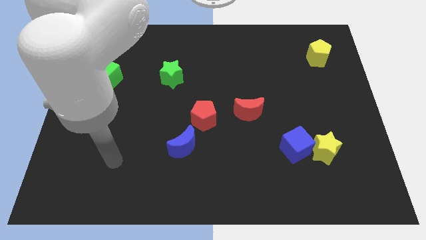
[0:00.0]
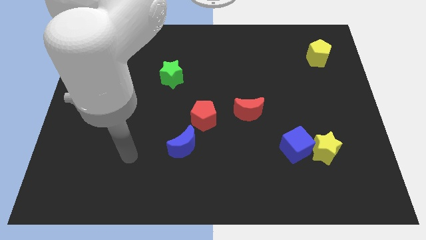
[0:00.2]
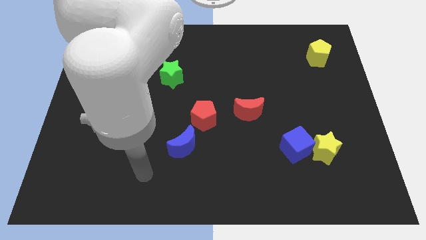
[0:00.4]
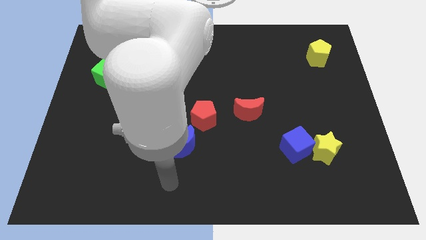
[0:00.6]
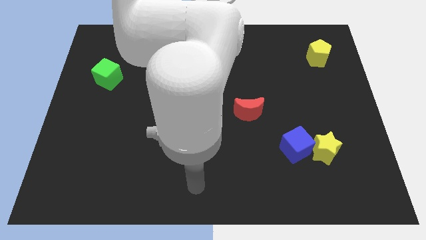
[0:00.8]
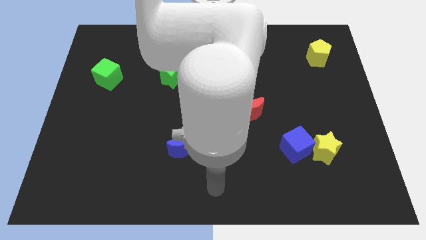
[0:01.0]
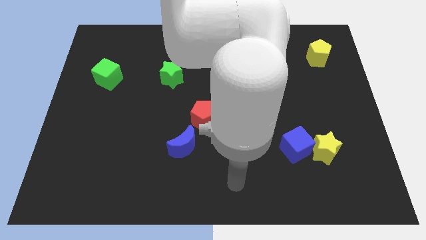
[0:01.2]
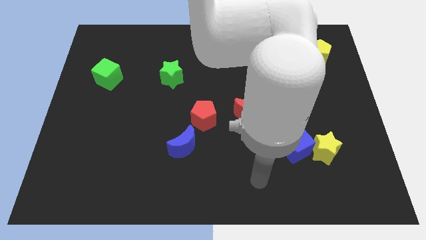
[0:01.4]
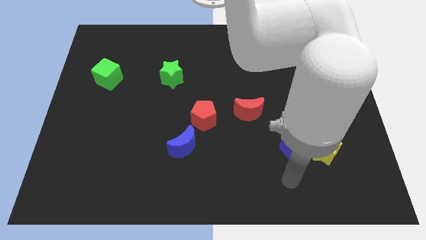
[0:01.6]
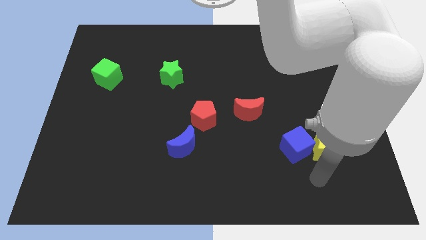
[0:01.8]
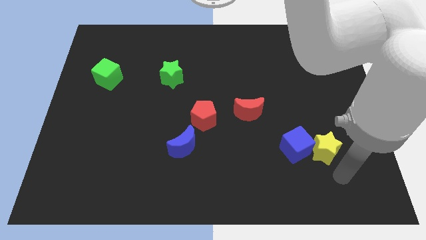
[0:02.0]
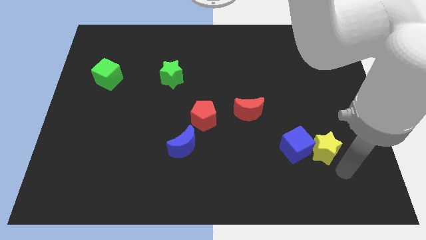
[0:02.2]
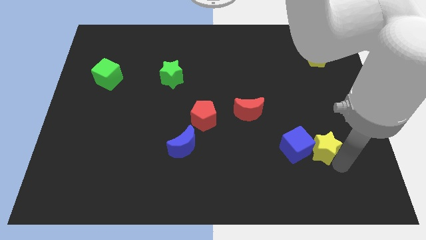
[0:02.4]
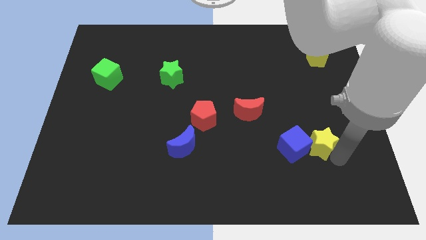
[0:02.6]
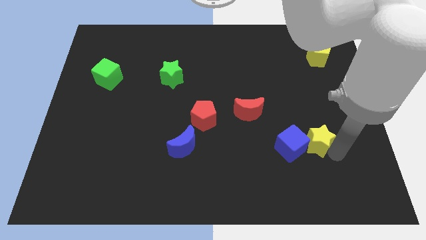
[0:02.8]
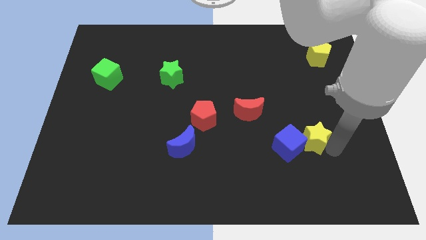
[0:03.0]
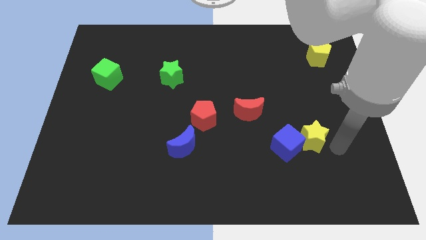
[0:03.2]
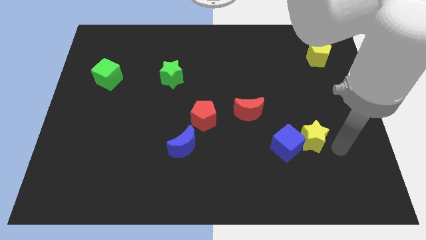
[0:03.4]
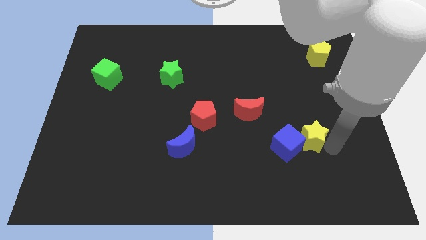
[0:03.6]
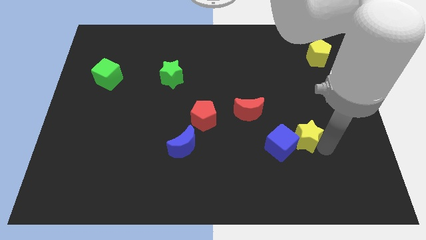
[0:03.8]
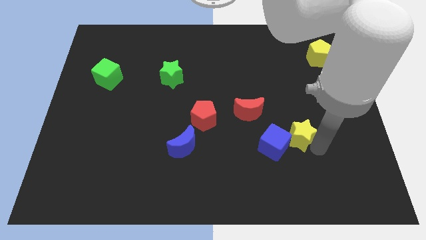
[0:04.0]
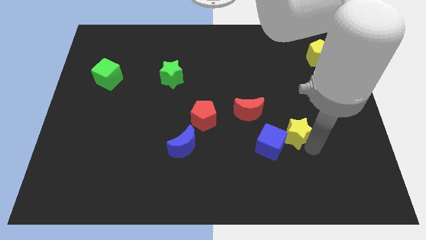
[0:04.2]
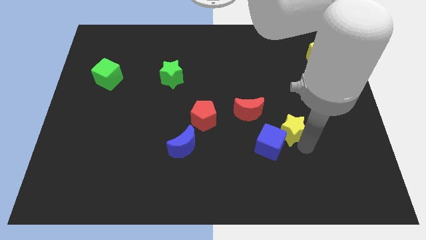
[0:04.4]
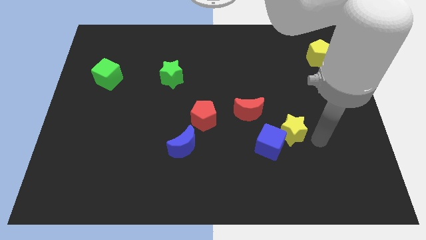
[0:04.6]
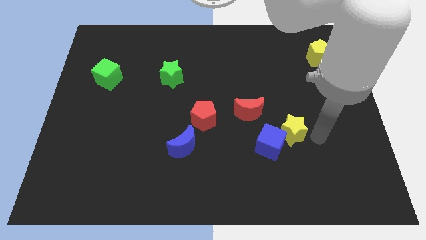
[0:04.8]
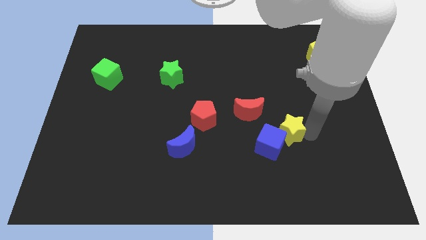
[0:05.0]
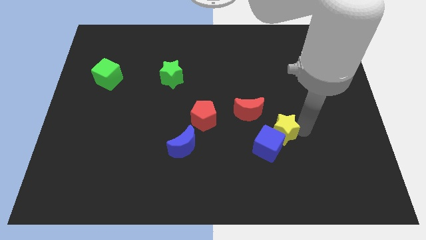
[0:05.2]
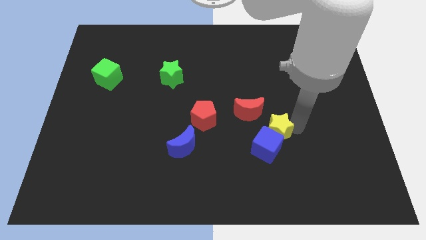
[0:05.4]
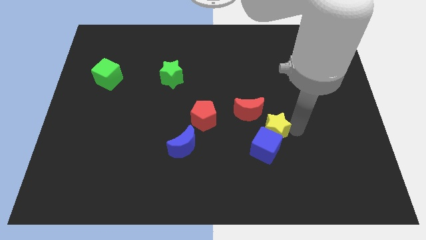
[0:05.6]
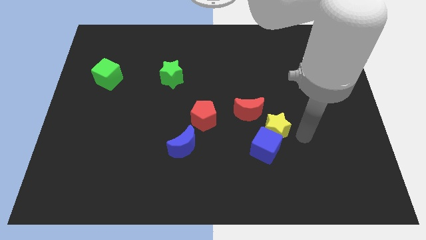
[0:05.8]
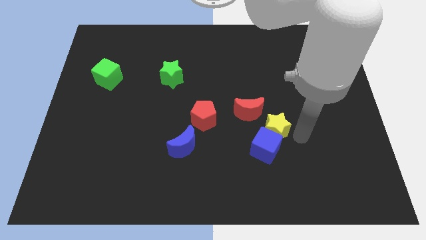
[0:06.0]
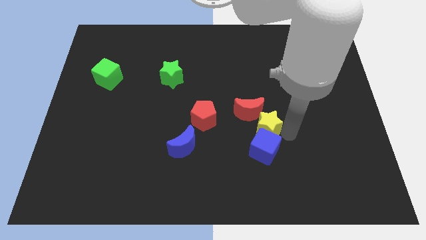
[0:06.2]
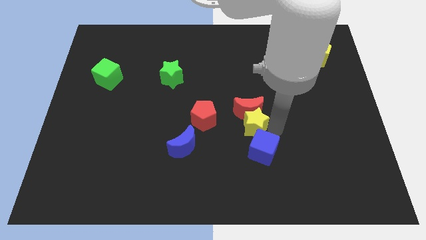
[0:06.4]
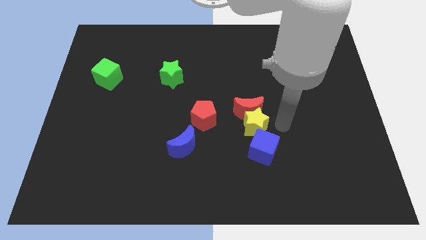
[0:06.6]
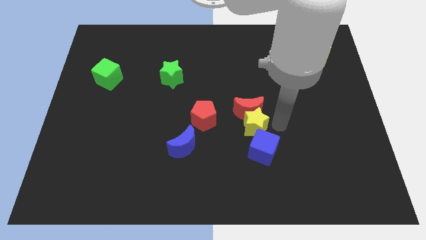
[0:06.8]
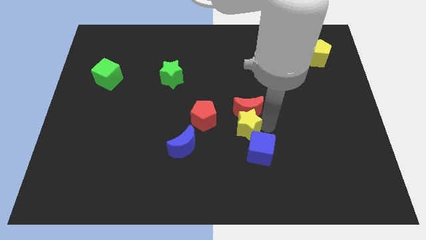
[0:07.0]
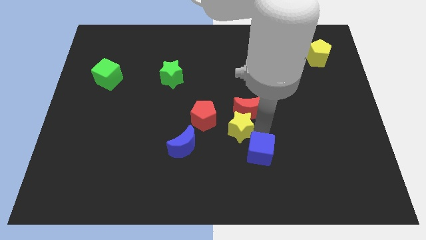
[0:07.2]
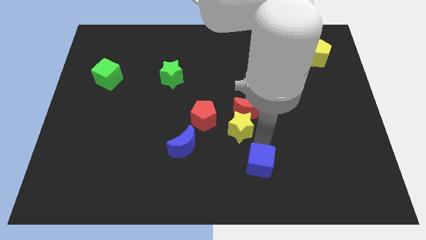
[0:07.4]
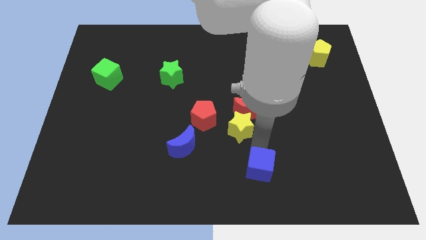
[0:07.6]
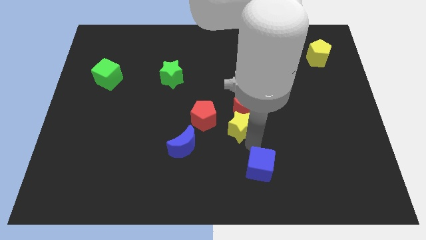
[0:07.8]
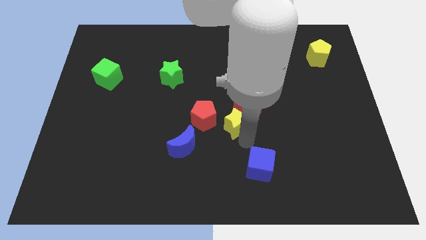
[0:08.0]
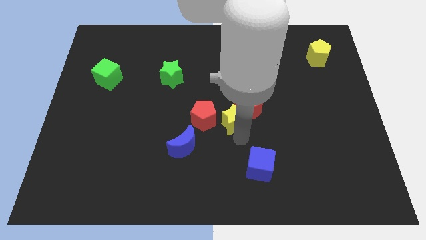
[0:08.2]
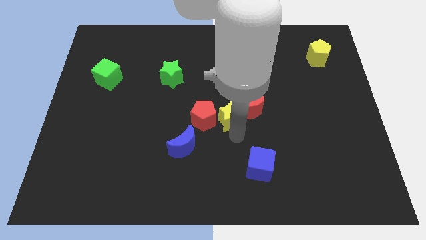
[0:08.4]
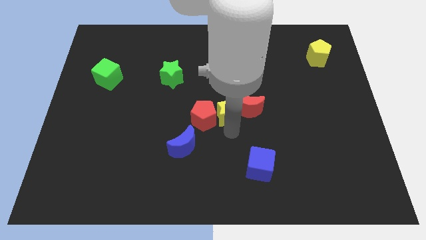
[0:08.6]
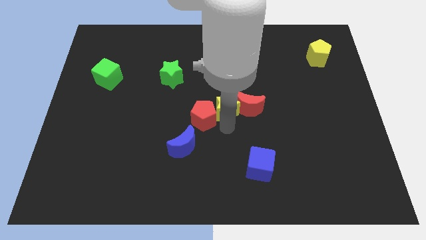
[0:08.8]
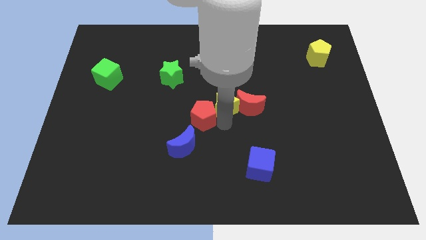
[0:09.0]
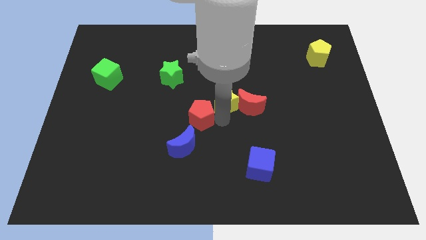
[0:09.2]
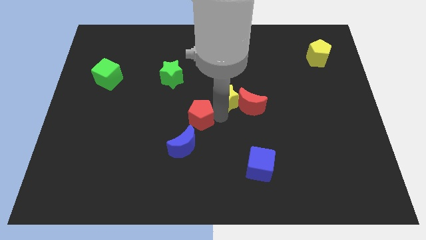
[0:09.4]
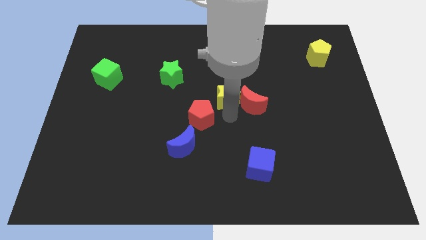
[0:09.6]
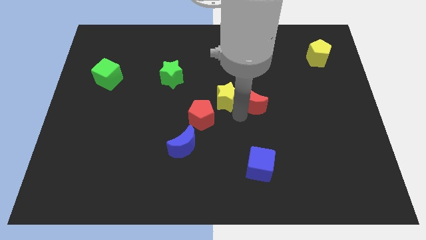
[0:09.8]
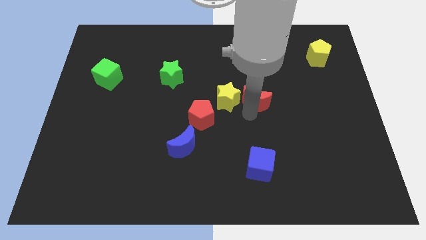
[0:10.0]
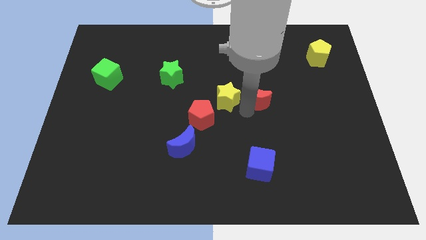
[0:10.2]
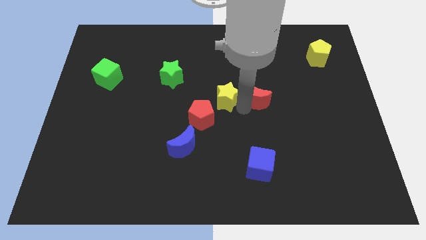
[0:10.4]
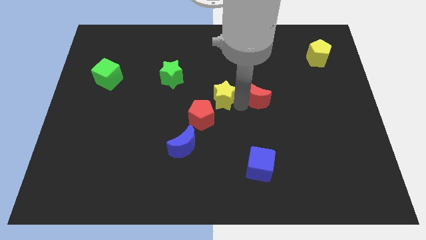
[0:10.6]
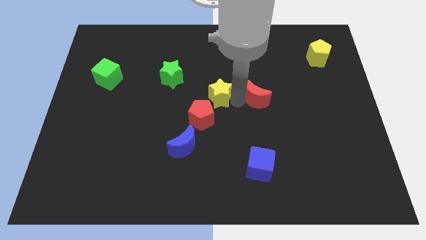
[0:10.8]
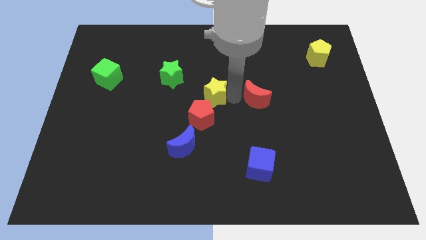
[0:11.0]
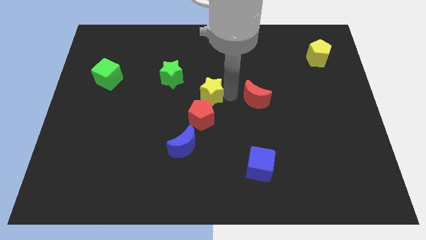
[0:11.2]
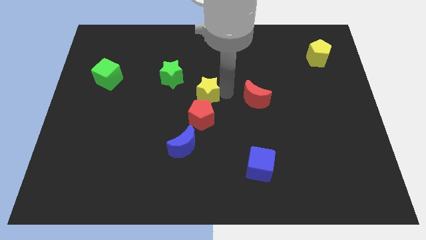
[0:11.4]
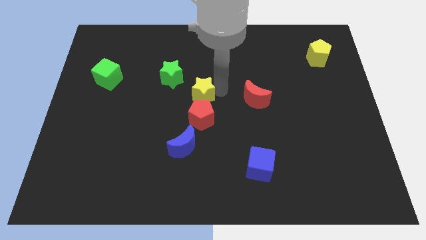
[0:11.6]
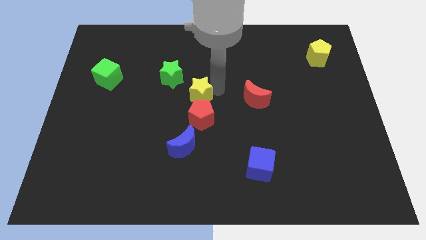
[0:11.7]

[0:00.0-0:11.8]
put the yellow star to the top left side of the red pentagon

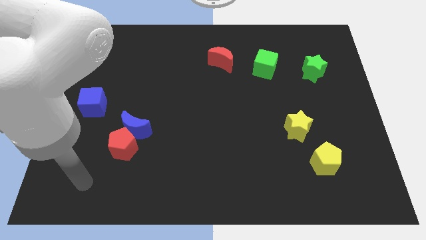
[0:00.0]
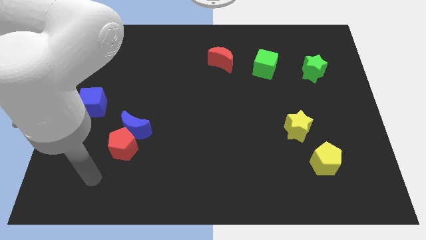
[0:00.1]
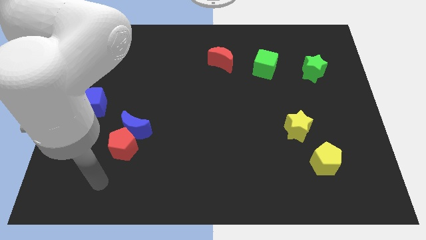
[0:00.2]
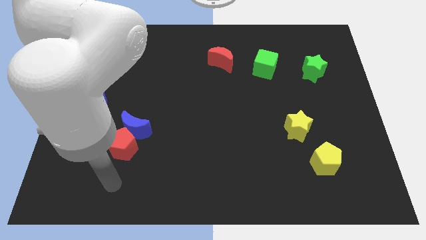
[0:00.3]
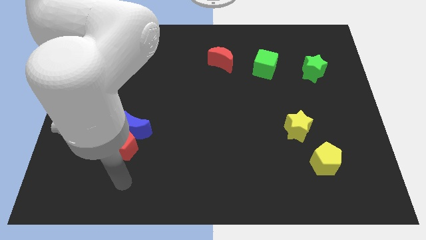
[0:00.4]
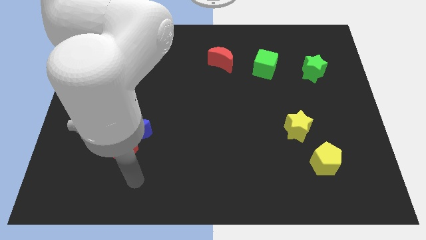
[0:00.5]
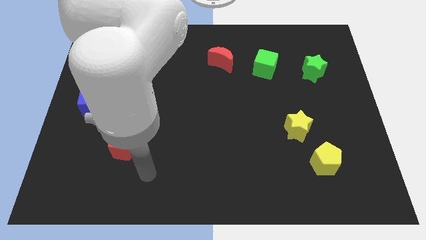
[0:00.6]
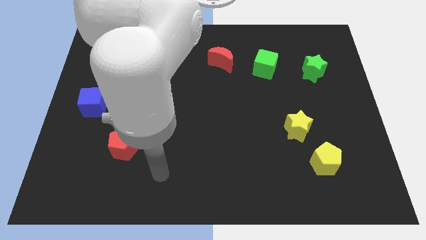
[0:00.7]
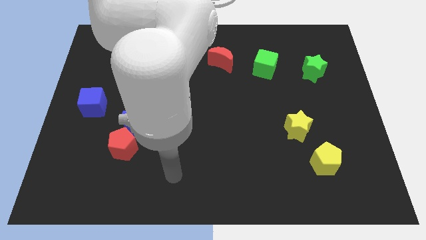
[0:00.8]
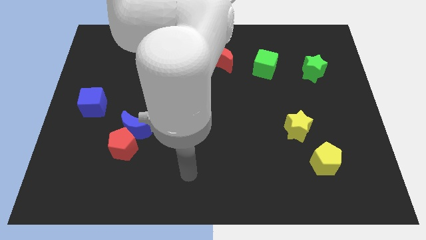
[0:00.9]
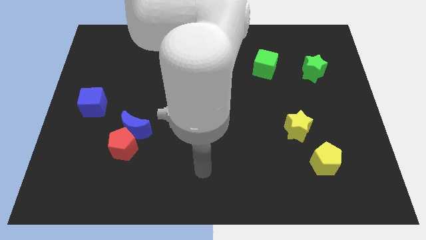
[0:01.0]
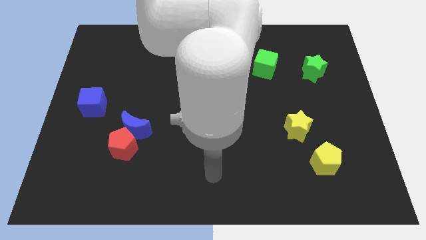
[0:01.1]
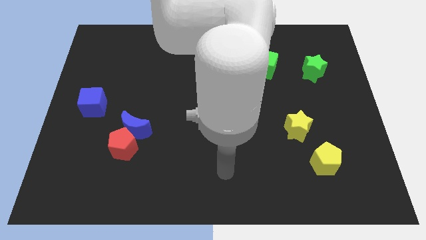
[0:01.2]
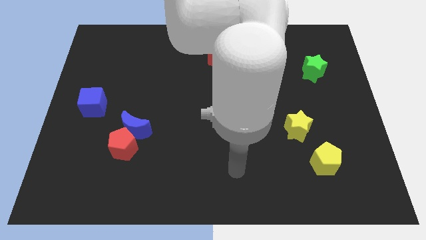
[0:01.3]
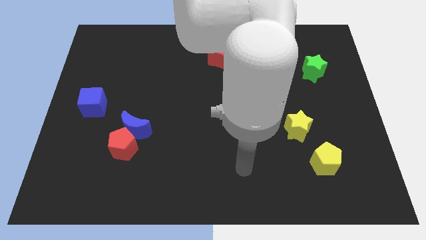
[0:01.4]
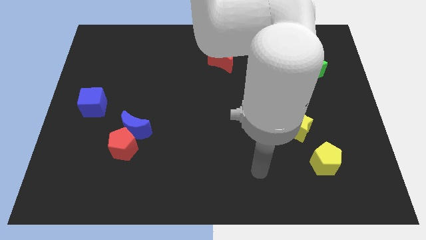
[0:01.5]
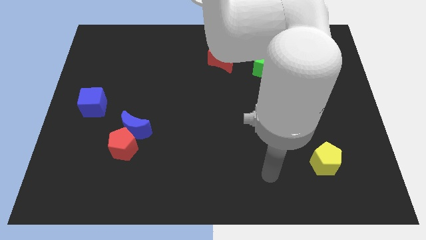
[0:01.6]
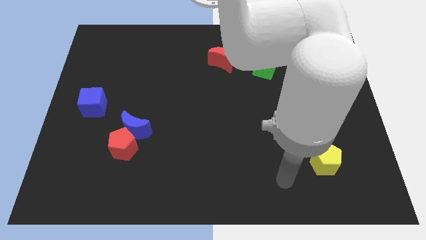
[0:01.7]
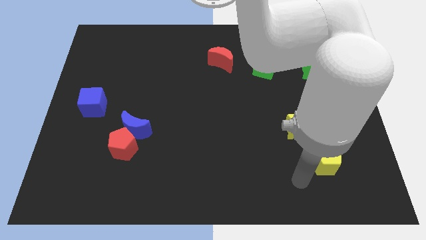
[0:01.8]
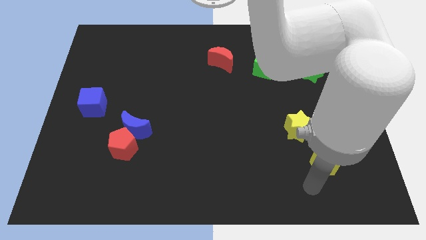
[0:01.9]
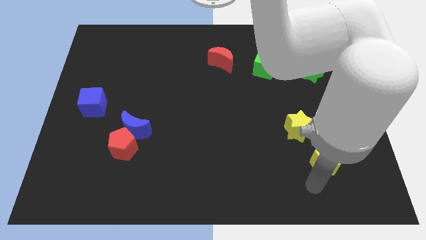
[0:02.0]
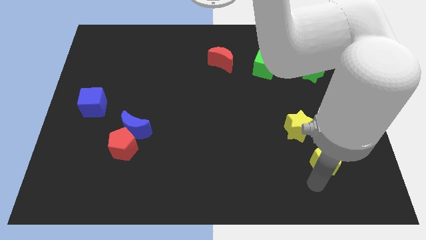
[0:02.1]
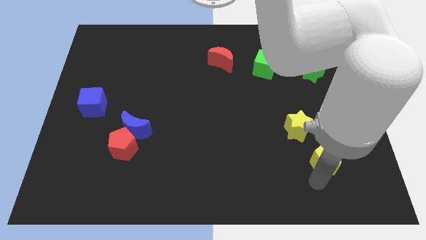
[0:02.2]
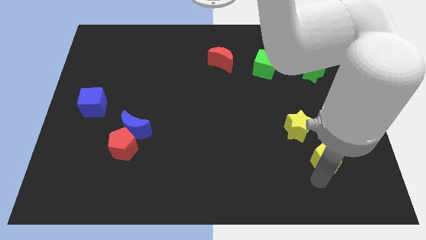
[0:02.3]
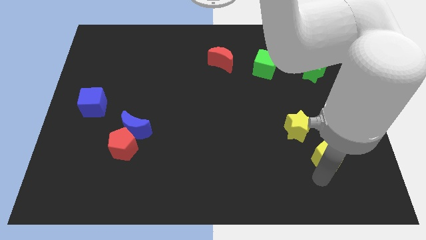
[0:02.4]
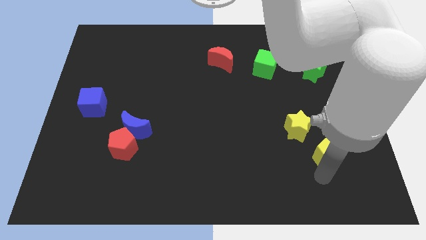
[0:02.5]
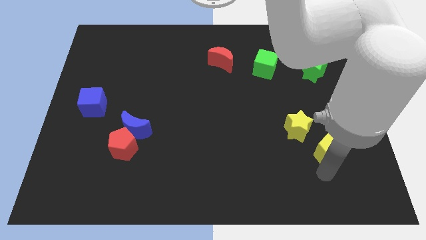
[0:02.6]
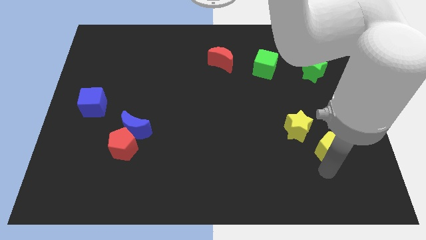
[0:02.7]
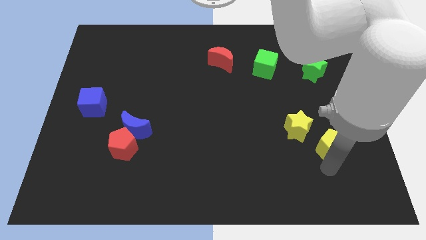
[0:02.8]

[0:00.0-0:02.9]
slide the yellow pentagon just right of the yellow star
